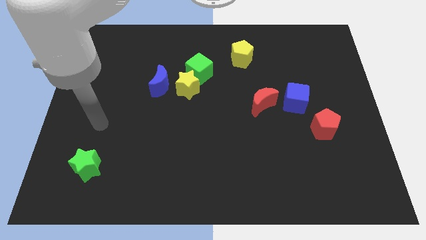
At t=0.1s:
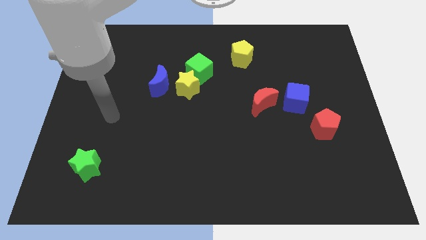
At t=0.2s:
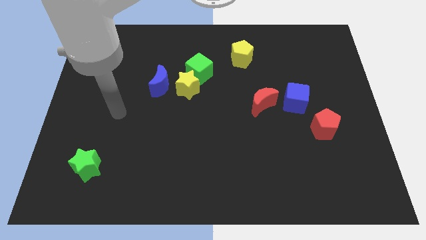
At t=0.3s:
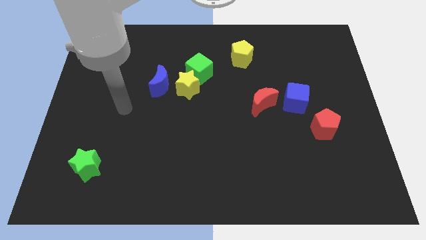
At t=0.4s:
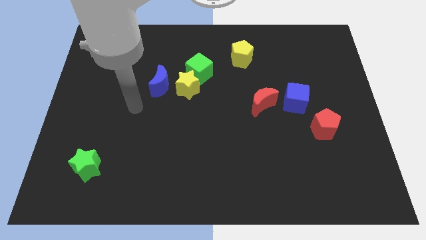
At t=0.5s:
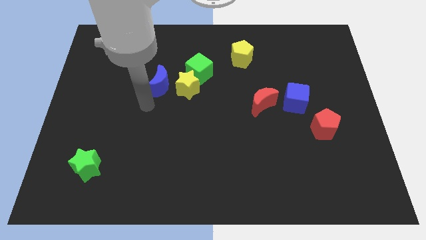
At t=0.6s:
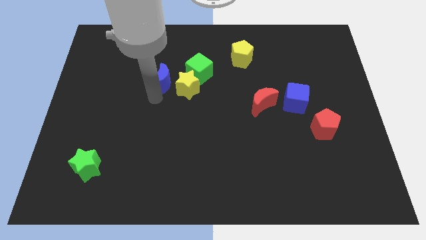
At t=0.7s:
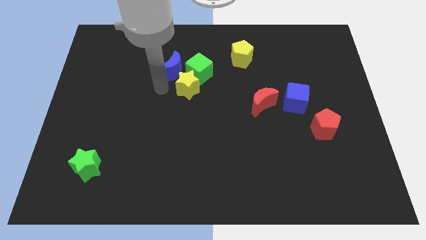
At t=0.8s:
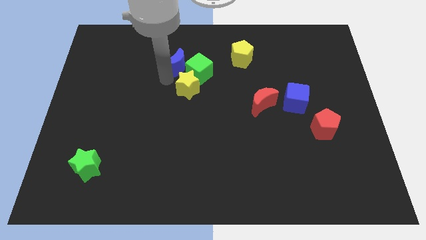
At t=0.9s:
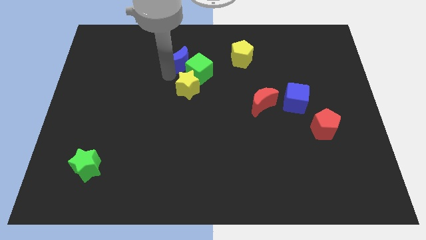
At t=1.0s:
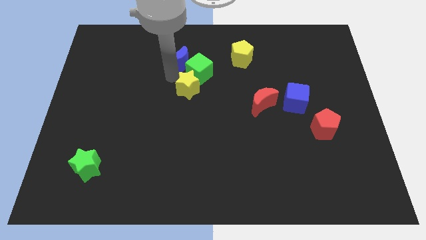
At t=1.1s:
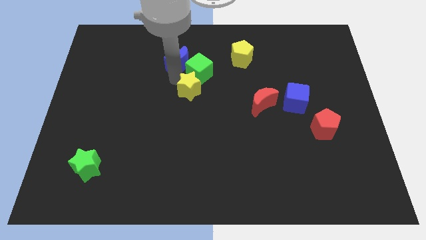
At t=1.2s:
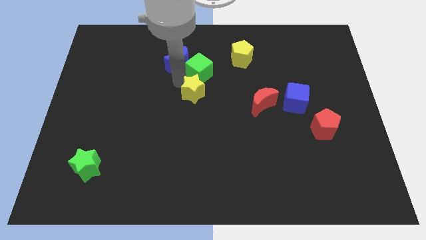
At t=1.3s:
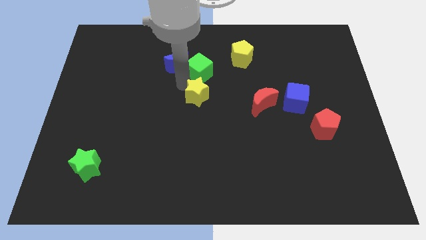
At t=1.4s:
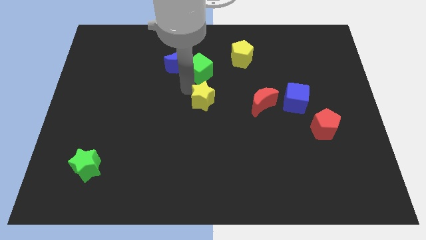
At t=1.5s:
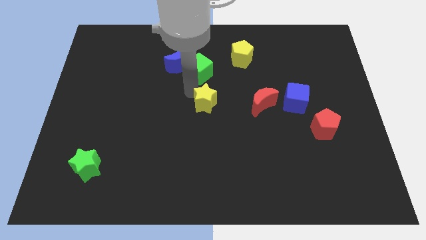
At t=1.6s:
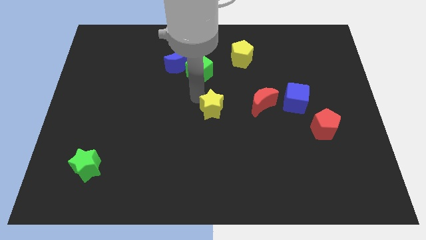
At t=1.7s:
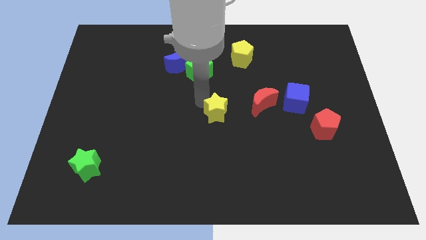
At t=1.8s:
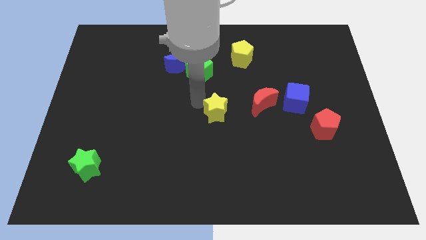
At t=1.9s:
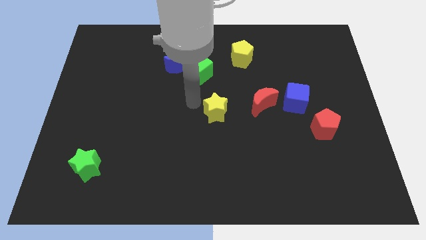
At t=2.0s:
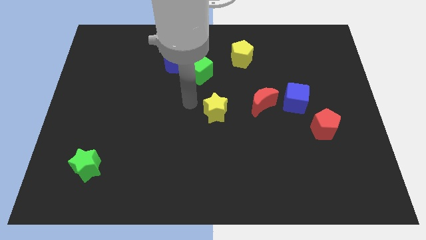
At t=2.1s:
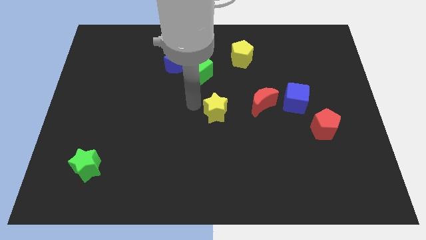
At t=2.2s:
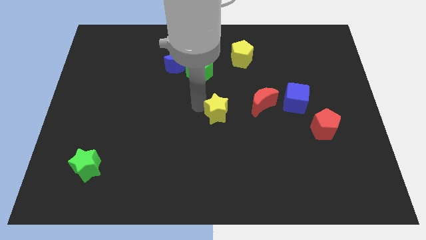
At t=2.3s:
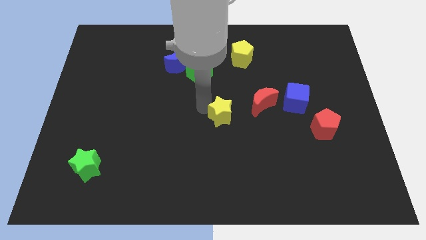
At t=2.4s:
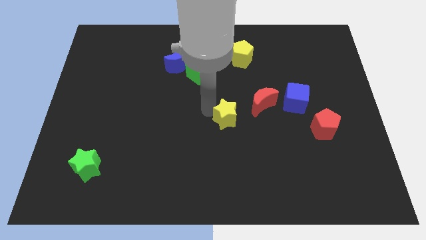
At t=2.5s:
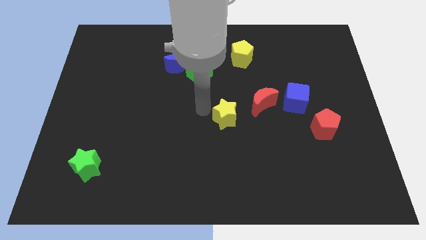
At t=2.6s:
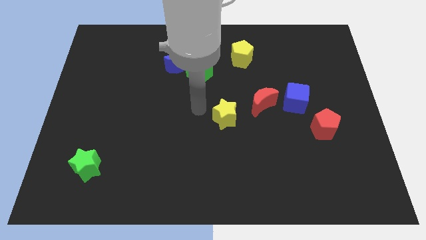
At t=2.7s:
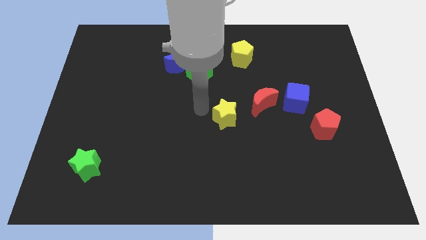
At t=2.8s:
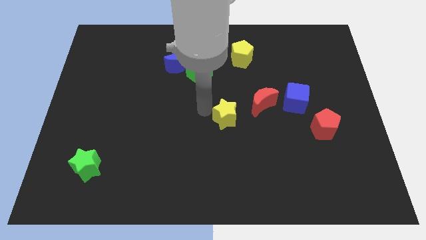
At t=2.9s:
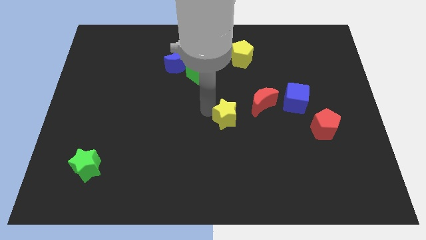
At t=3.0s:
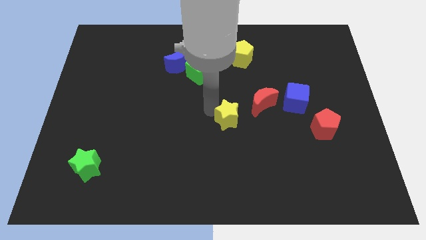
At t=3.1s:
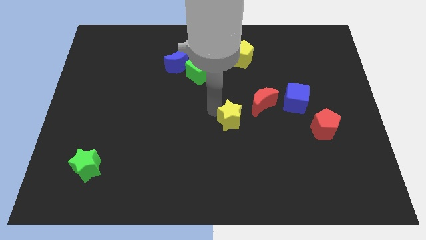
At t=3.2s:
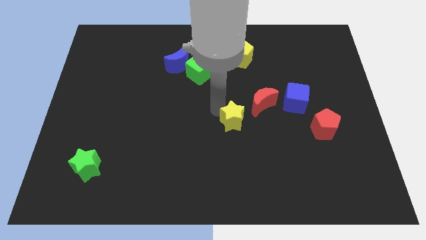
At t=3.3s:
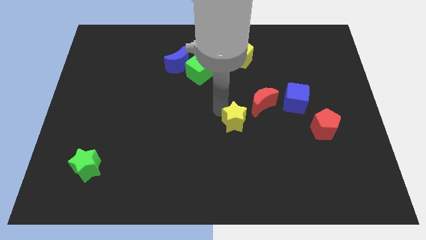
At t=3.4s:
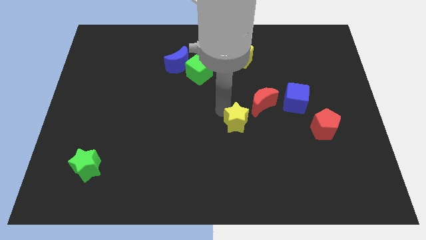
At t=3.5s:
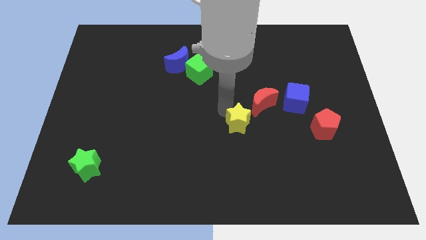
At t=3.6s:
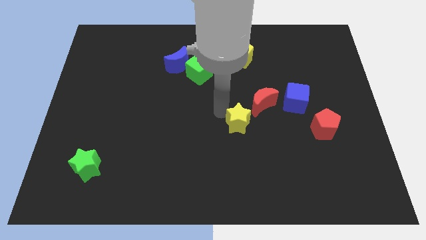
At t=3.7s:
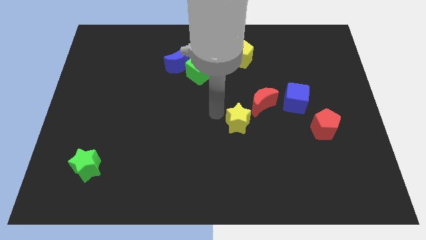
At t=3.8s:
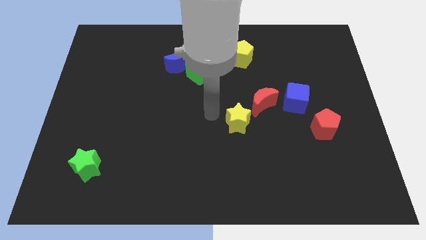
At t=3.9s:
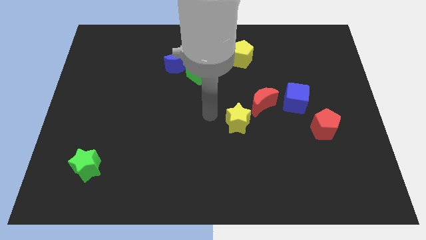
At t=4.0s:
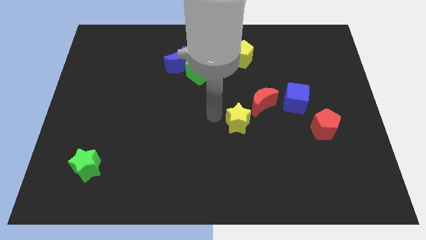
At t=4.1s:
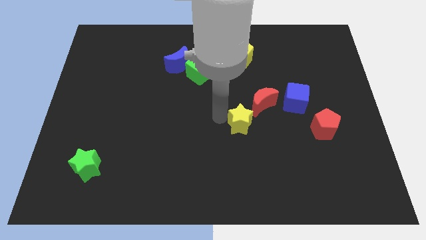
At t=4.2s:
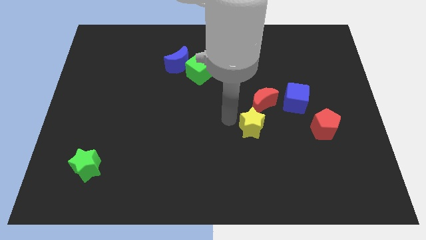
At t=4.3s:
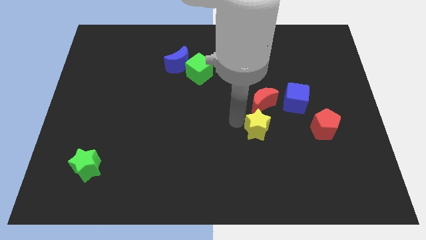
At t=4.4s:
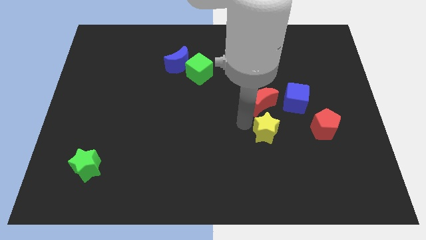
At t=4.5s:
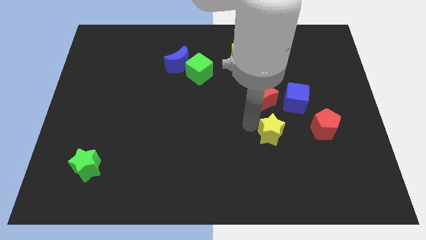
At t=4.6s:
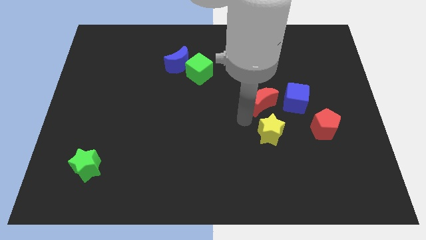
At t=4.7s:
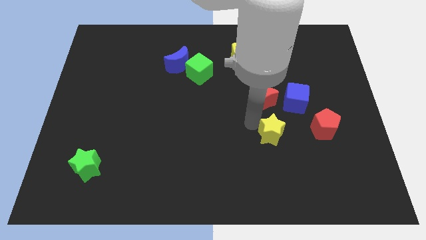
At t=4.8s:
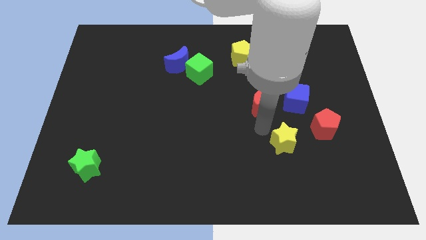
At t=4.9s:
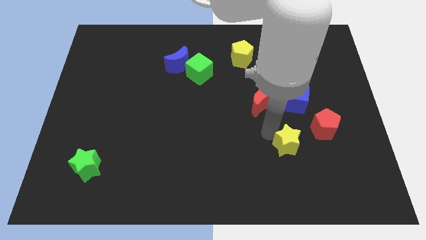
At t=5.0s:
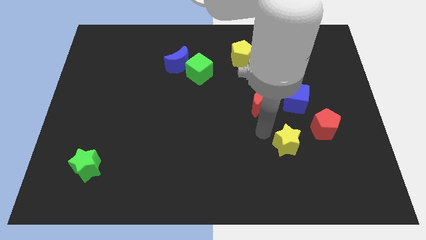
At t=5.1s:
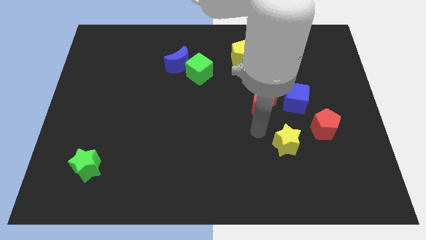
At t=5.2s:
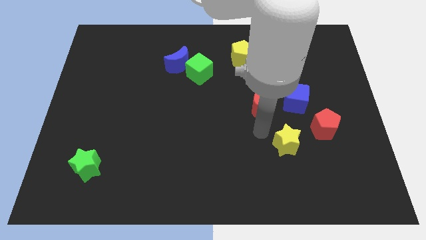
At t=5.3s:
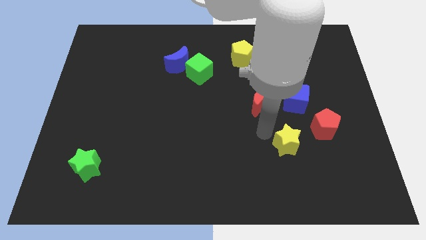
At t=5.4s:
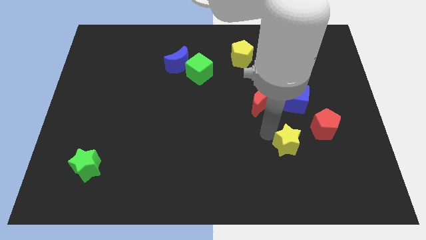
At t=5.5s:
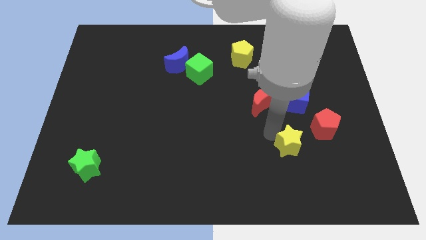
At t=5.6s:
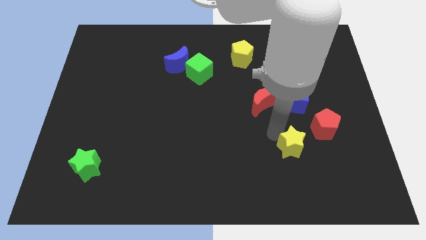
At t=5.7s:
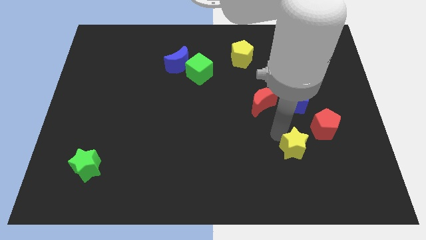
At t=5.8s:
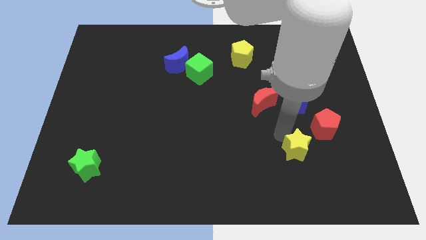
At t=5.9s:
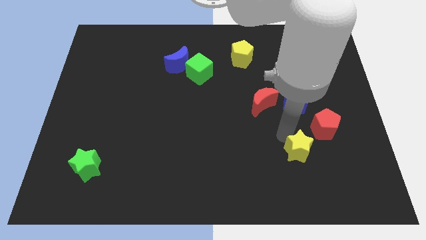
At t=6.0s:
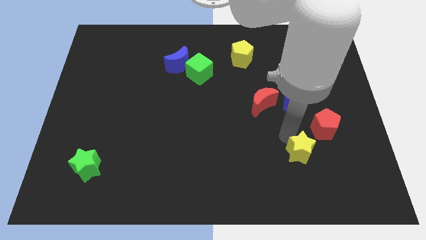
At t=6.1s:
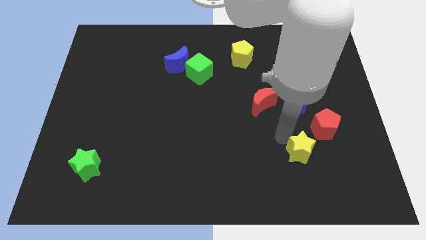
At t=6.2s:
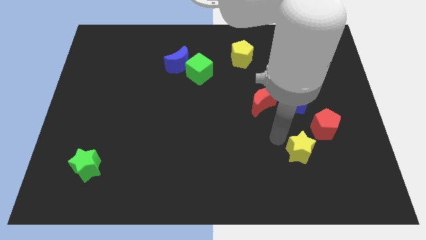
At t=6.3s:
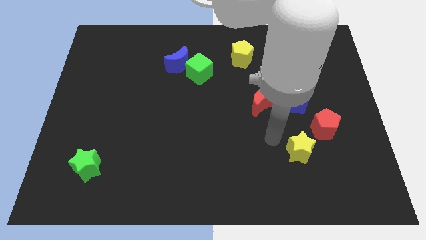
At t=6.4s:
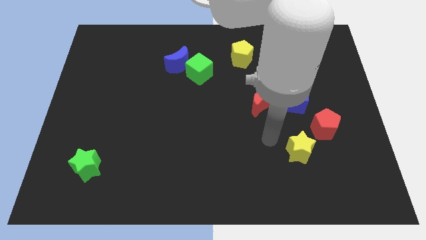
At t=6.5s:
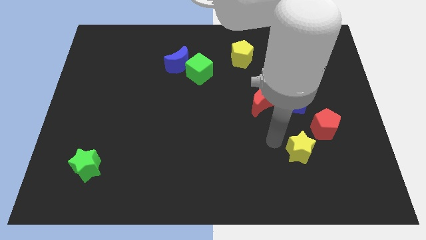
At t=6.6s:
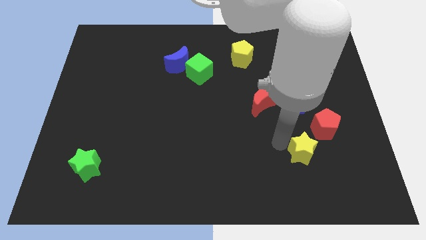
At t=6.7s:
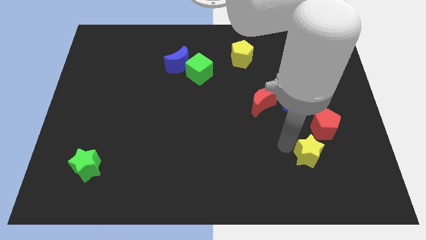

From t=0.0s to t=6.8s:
move the yellow star below the red pentagon

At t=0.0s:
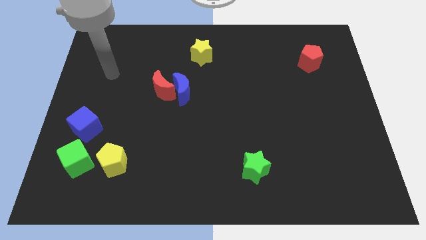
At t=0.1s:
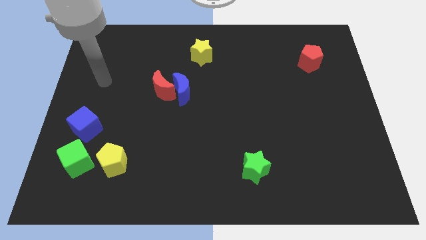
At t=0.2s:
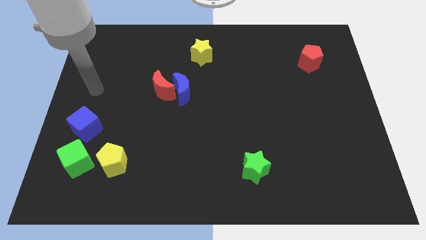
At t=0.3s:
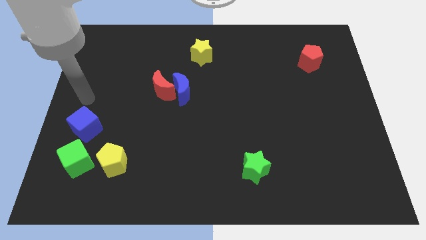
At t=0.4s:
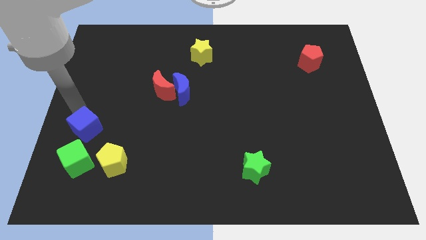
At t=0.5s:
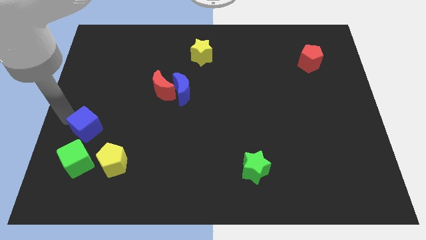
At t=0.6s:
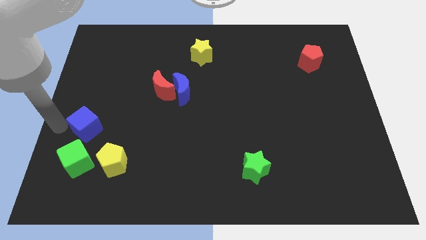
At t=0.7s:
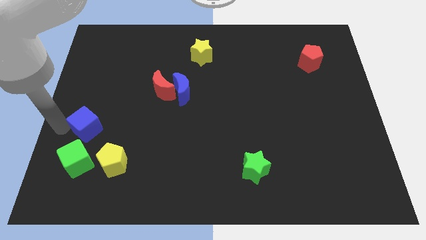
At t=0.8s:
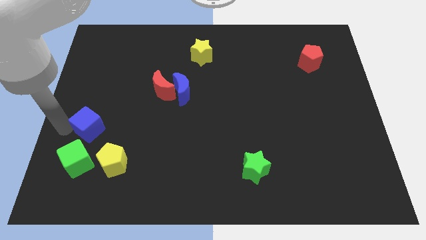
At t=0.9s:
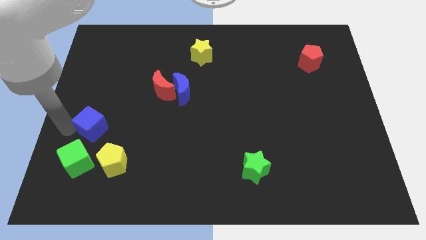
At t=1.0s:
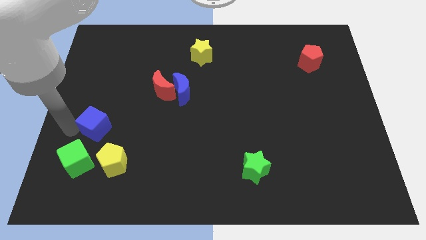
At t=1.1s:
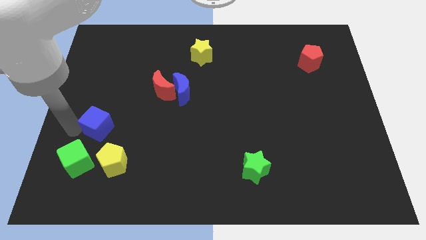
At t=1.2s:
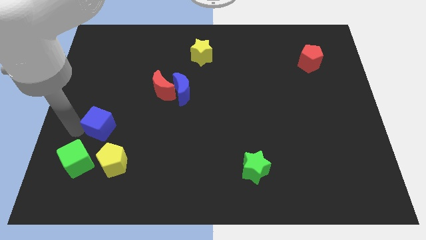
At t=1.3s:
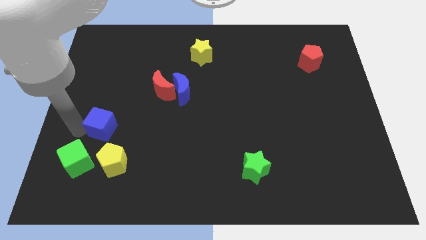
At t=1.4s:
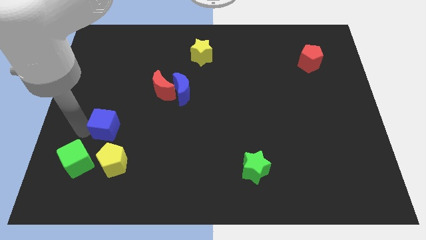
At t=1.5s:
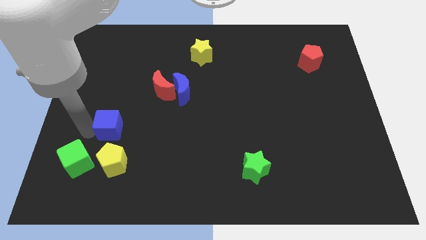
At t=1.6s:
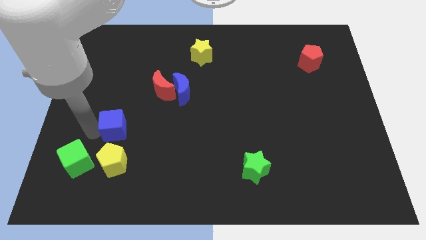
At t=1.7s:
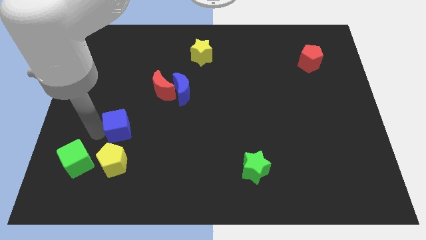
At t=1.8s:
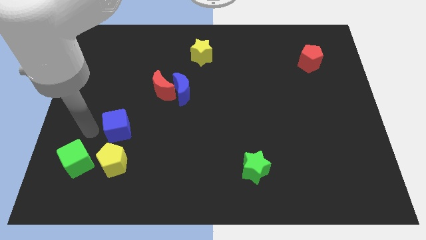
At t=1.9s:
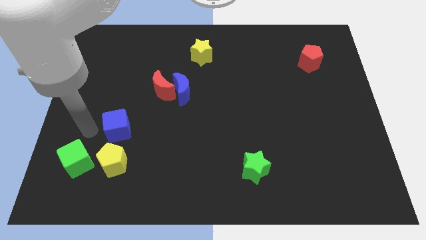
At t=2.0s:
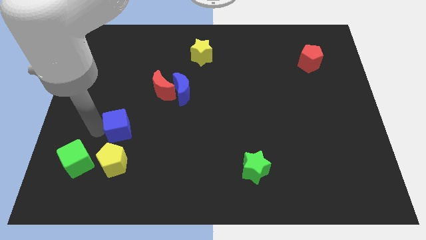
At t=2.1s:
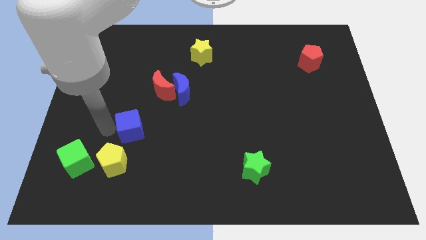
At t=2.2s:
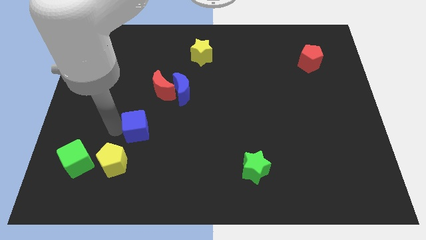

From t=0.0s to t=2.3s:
slide the blue cube to the bottom side of the red moon
